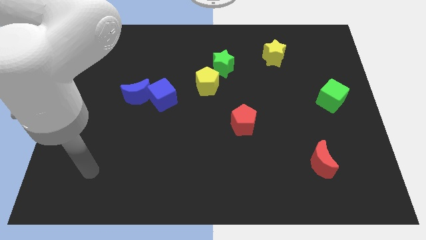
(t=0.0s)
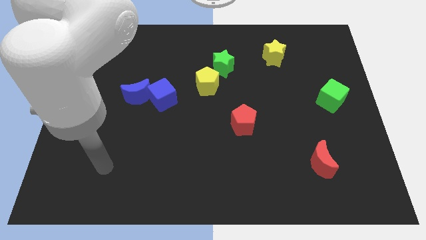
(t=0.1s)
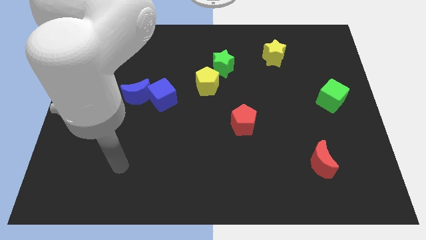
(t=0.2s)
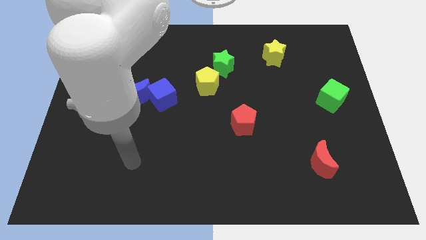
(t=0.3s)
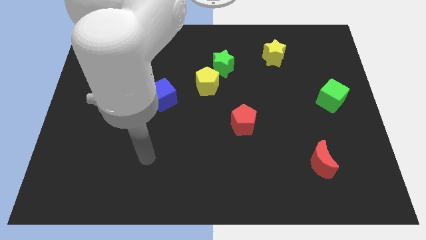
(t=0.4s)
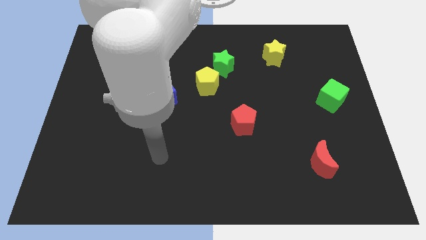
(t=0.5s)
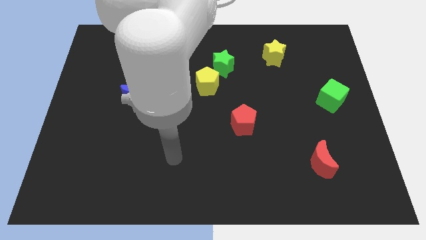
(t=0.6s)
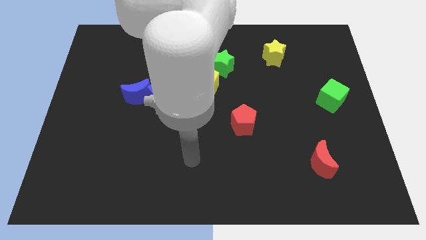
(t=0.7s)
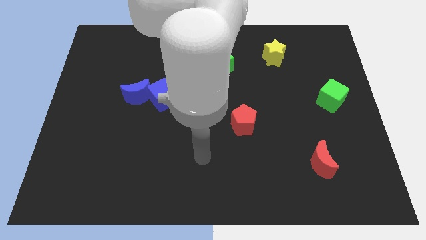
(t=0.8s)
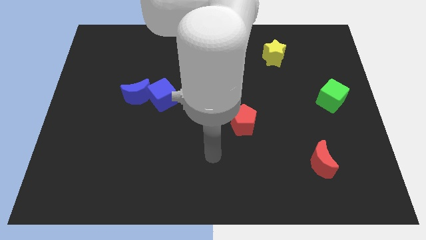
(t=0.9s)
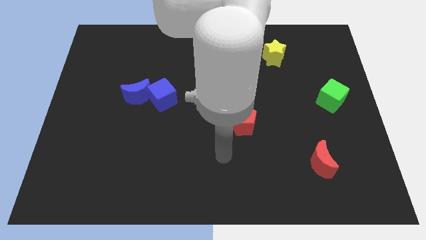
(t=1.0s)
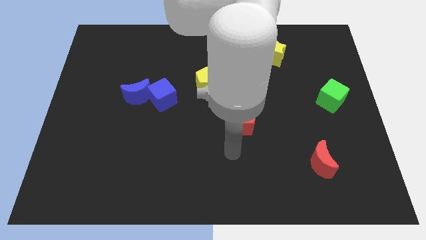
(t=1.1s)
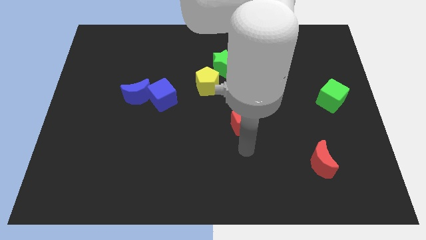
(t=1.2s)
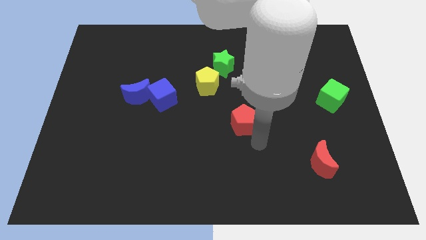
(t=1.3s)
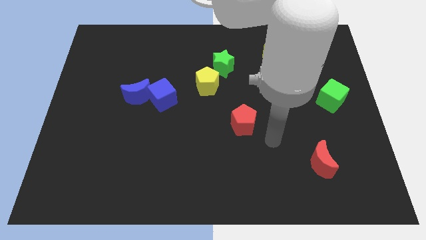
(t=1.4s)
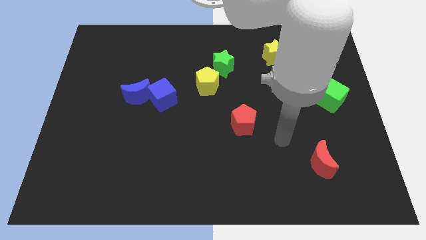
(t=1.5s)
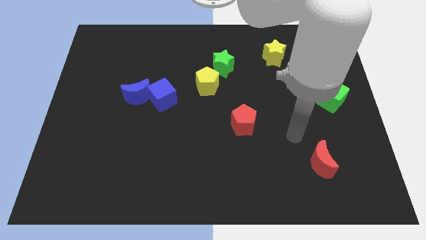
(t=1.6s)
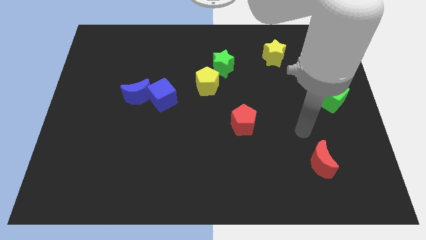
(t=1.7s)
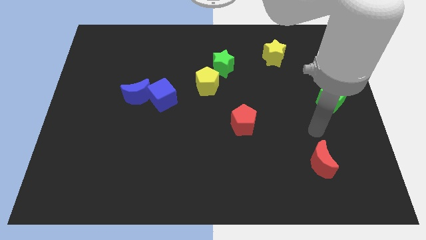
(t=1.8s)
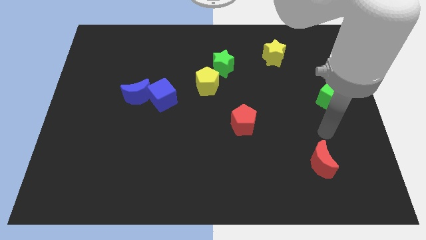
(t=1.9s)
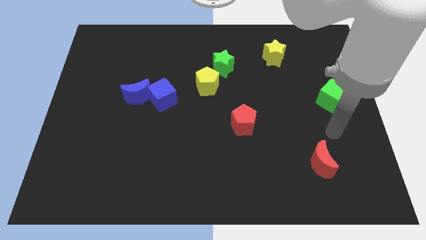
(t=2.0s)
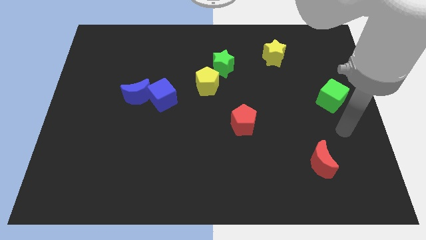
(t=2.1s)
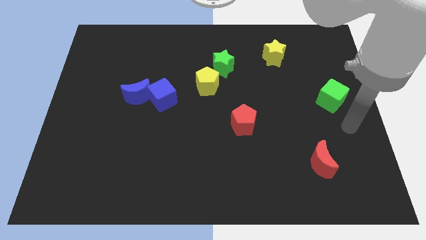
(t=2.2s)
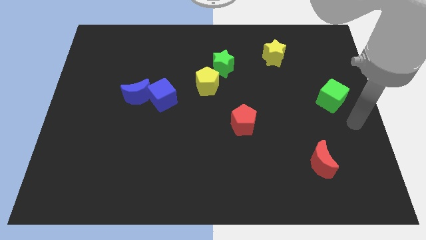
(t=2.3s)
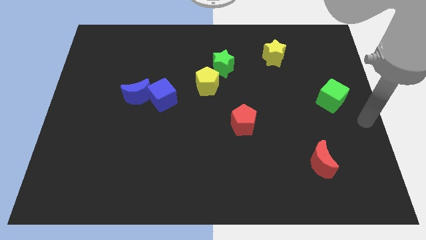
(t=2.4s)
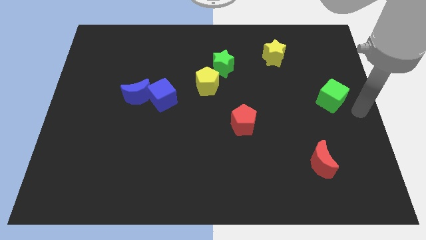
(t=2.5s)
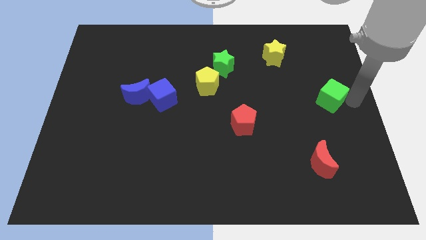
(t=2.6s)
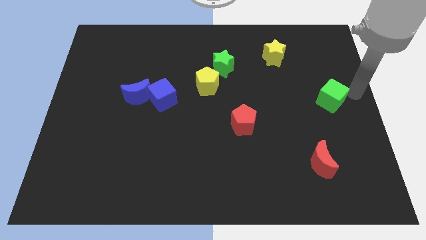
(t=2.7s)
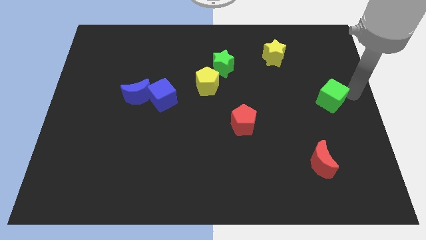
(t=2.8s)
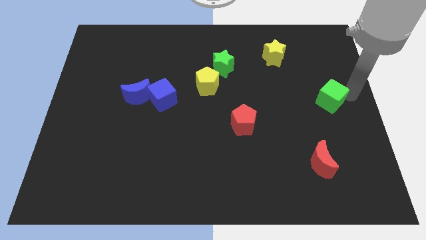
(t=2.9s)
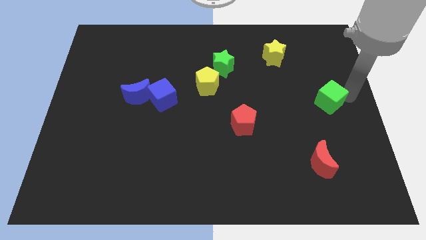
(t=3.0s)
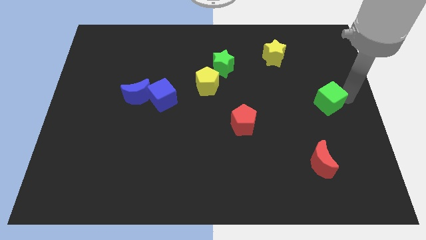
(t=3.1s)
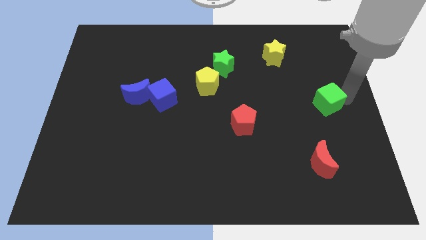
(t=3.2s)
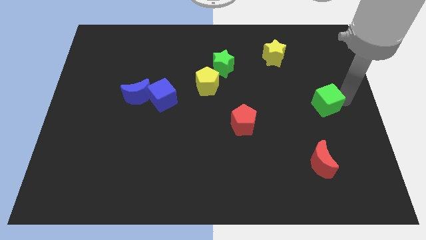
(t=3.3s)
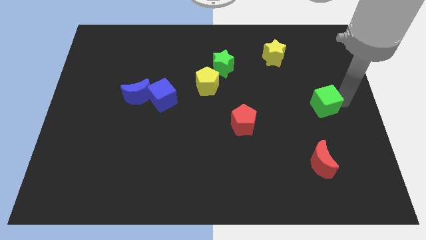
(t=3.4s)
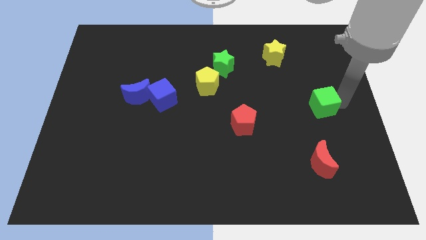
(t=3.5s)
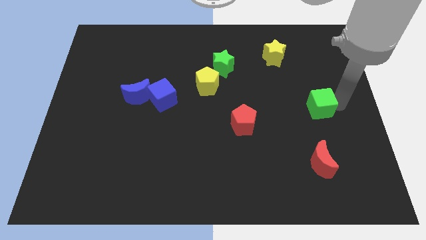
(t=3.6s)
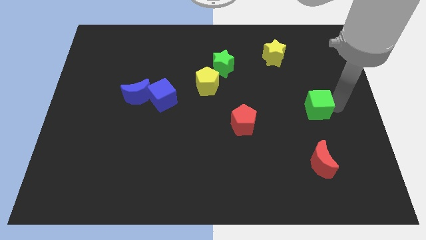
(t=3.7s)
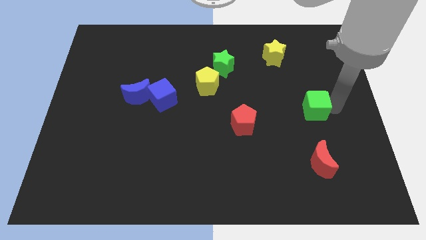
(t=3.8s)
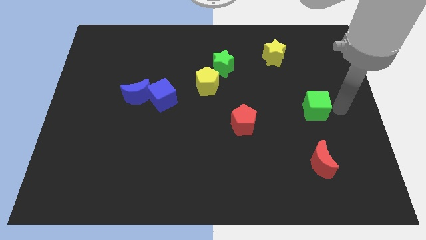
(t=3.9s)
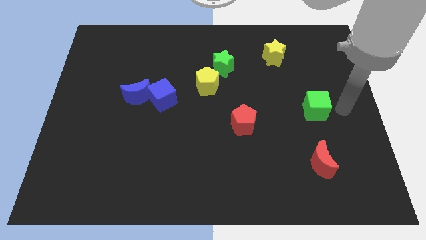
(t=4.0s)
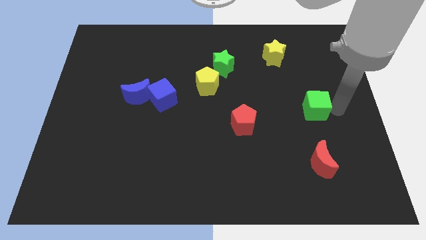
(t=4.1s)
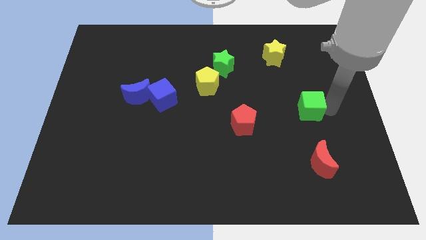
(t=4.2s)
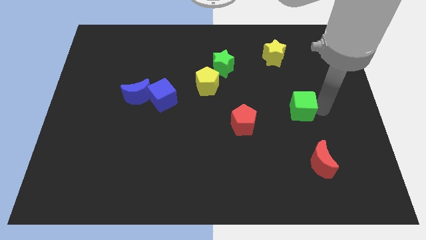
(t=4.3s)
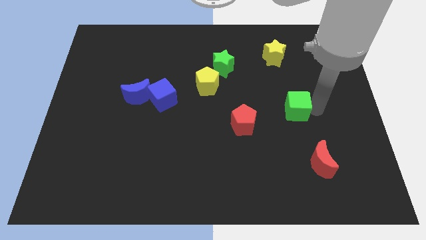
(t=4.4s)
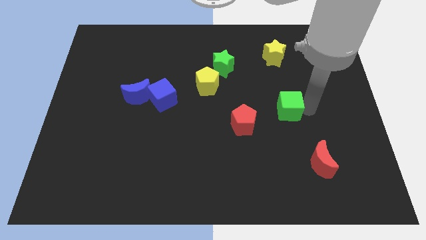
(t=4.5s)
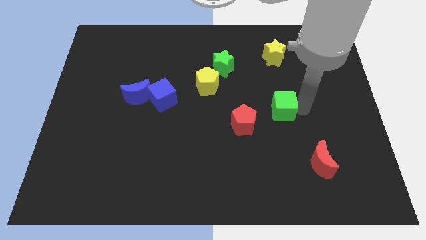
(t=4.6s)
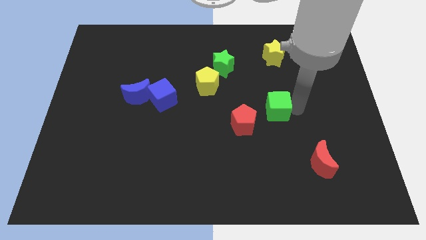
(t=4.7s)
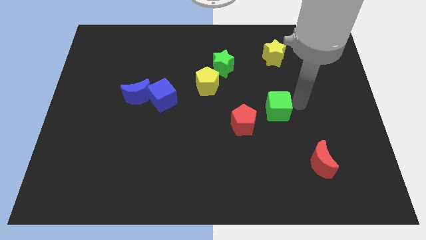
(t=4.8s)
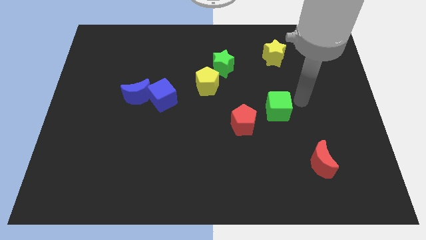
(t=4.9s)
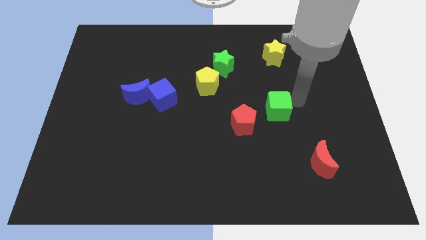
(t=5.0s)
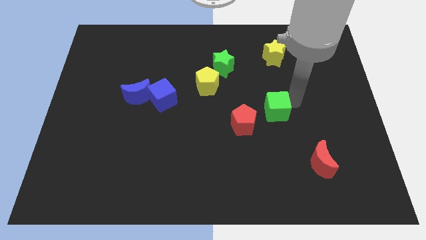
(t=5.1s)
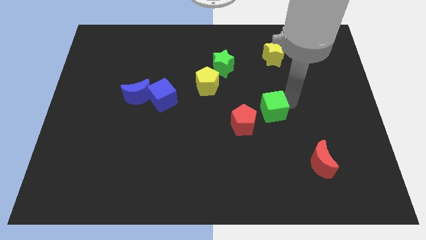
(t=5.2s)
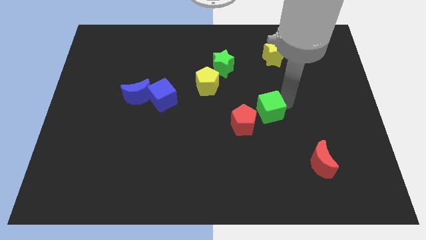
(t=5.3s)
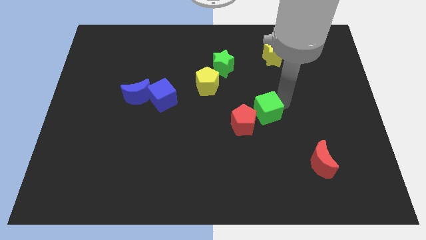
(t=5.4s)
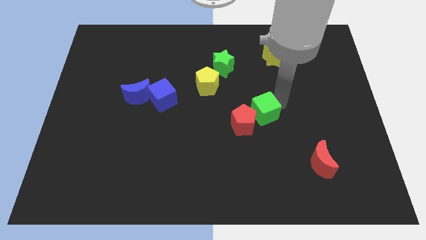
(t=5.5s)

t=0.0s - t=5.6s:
move the green cube to the red pentagon

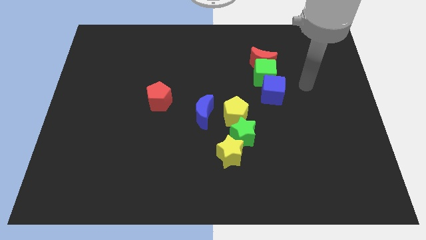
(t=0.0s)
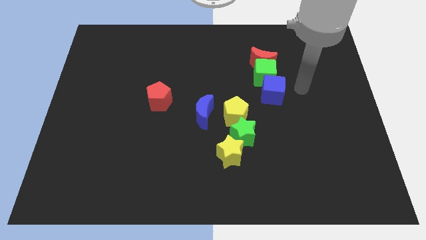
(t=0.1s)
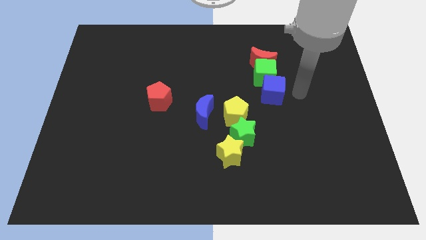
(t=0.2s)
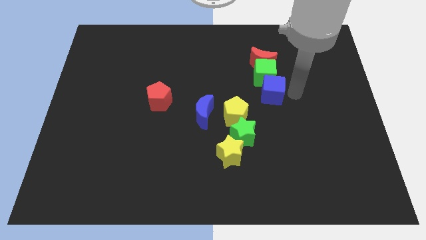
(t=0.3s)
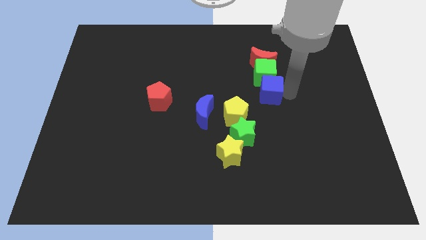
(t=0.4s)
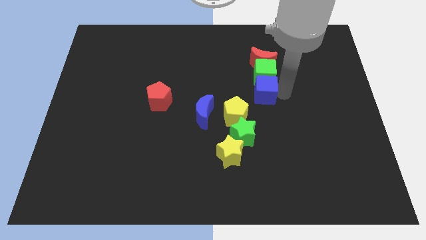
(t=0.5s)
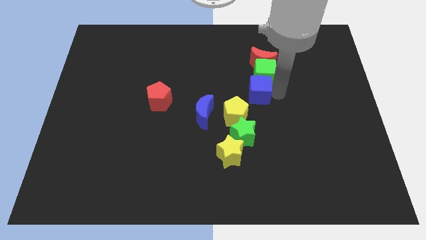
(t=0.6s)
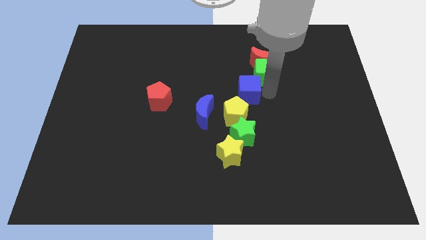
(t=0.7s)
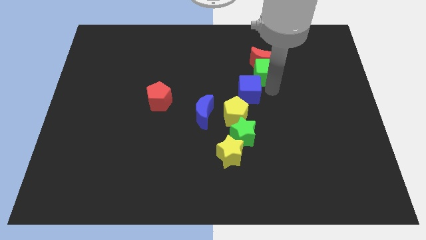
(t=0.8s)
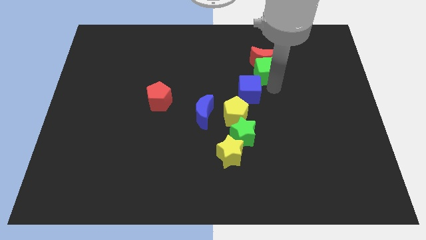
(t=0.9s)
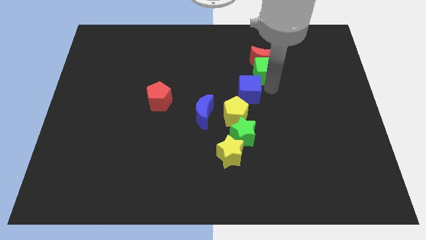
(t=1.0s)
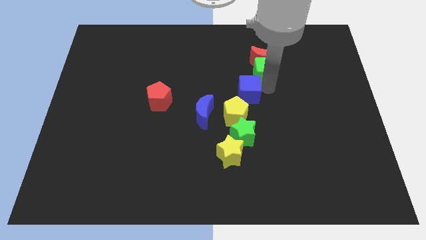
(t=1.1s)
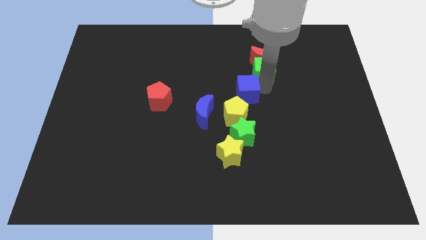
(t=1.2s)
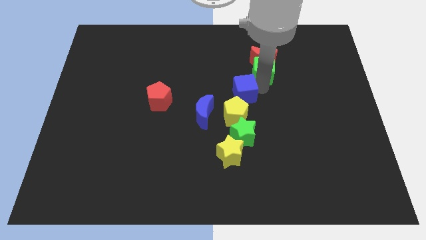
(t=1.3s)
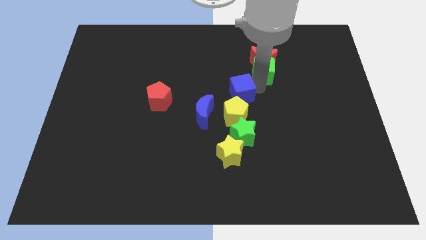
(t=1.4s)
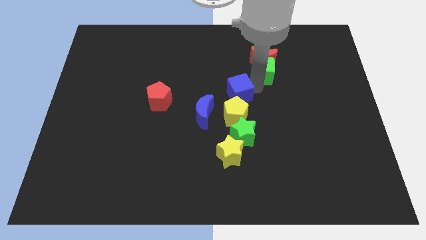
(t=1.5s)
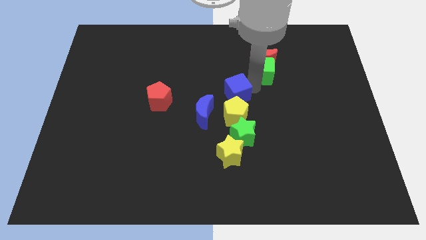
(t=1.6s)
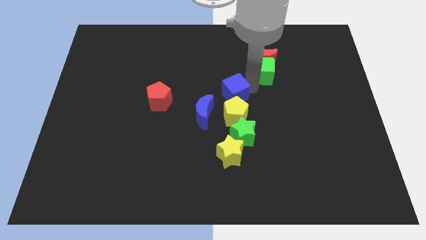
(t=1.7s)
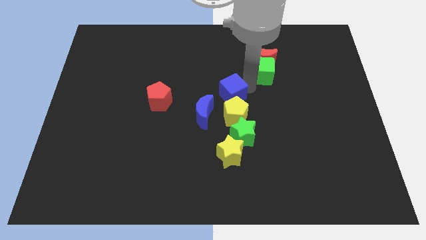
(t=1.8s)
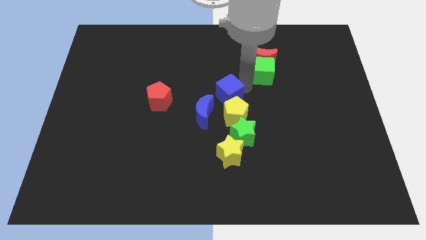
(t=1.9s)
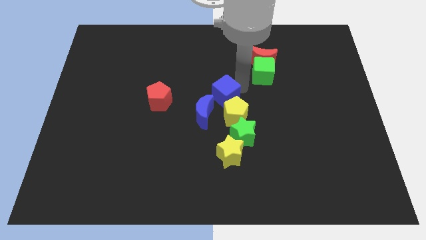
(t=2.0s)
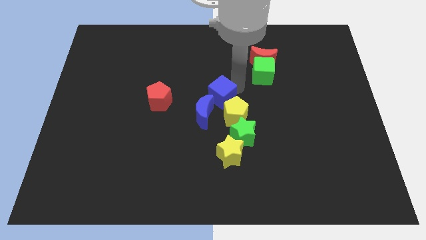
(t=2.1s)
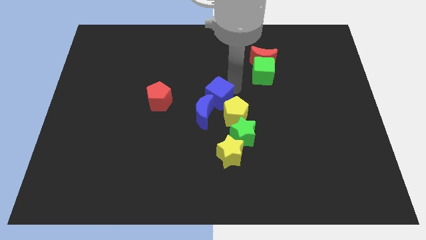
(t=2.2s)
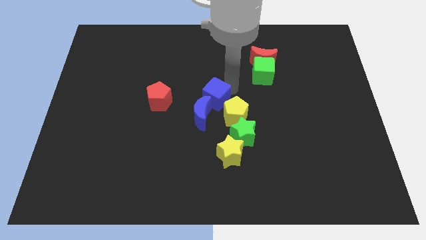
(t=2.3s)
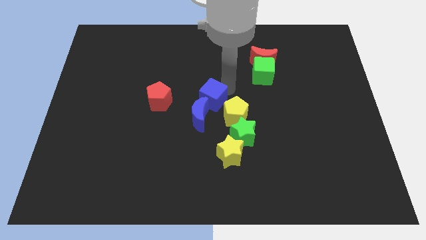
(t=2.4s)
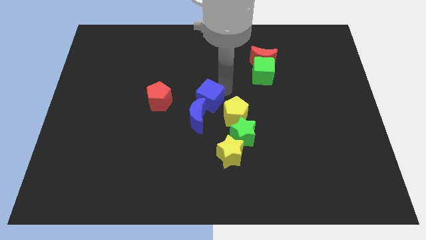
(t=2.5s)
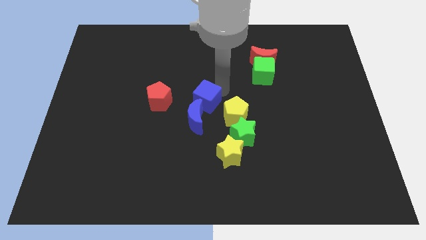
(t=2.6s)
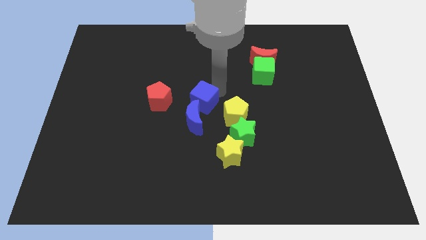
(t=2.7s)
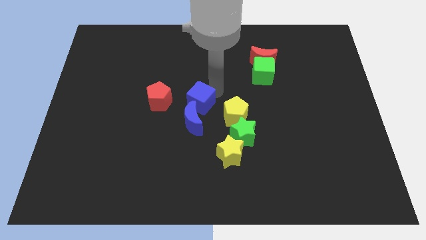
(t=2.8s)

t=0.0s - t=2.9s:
move the blue cube next to the blue moon
